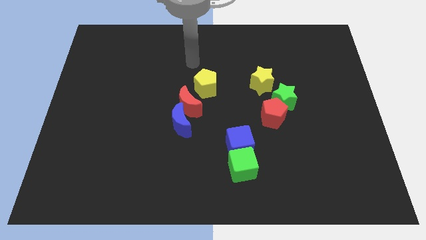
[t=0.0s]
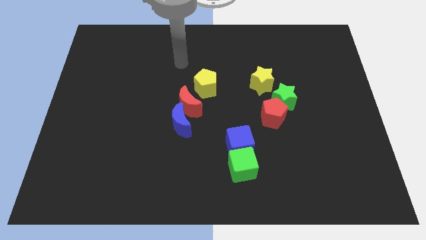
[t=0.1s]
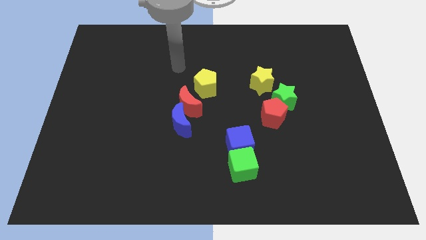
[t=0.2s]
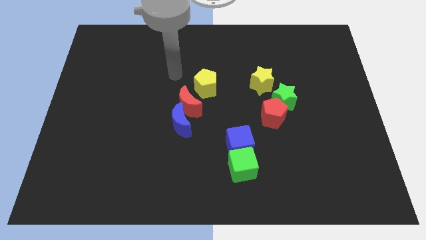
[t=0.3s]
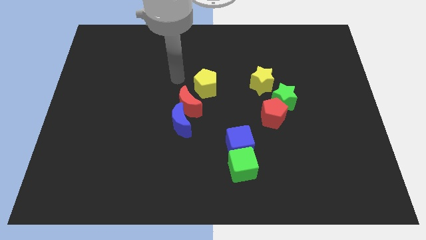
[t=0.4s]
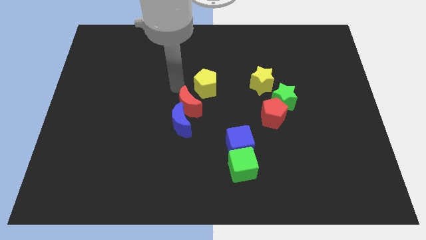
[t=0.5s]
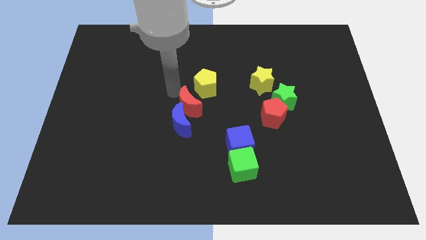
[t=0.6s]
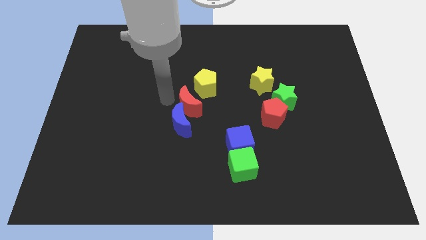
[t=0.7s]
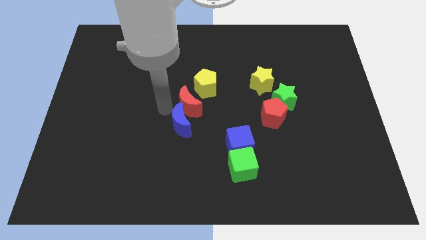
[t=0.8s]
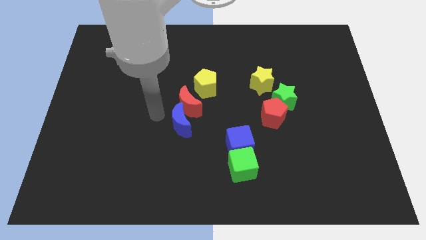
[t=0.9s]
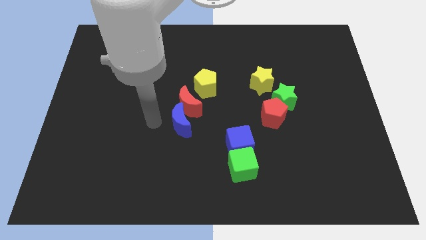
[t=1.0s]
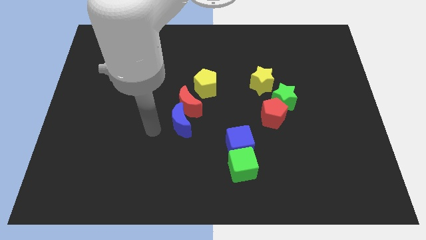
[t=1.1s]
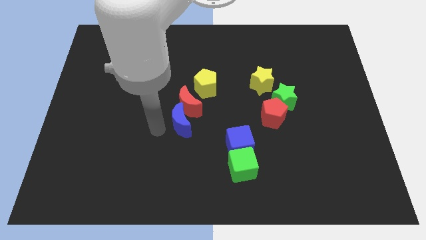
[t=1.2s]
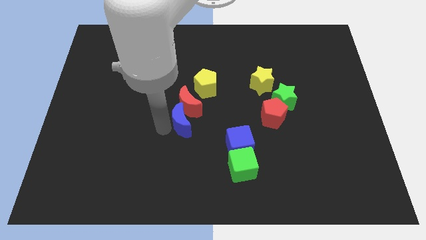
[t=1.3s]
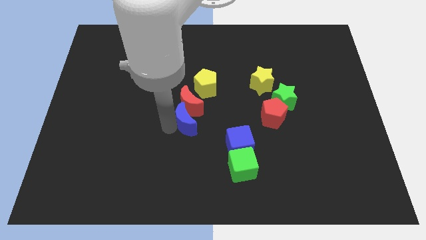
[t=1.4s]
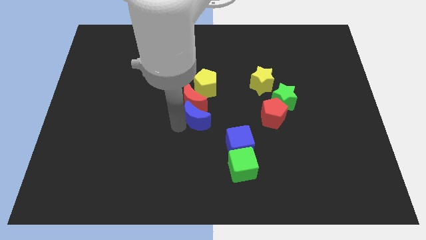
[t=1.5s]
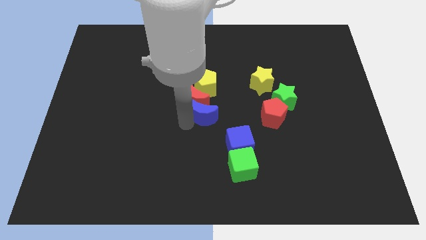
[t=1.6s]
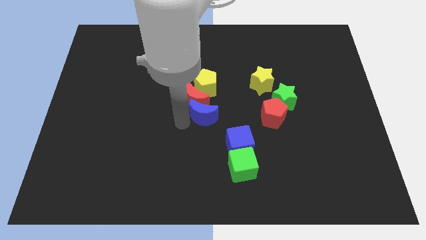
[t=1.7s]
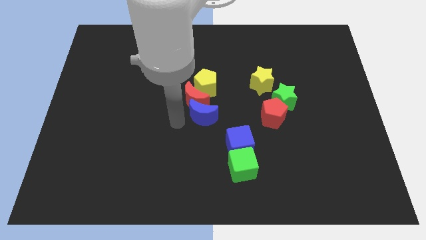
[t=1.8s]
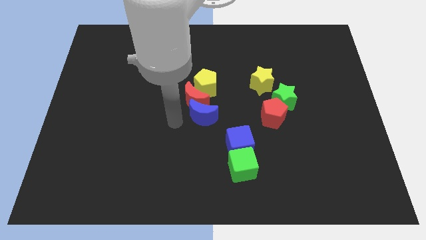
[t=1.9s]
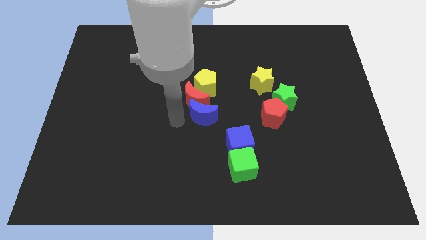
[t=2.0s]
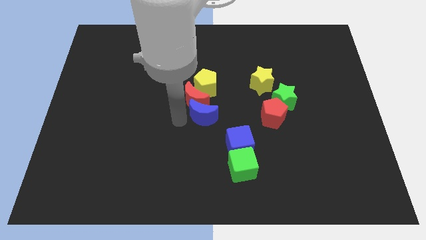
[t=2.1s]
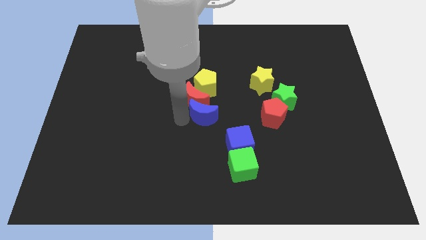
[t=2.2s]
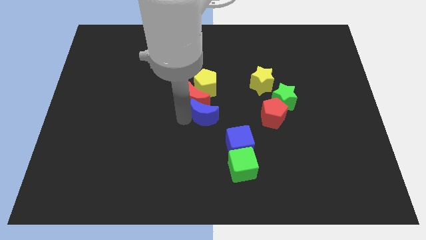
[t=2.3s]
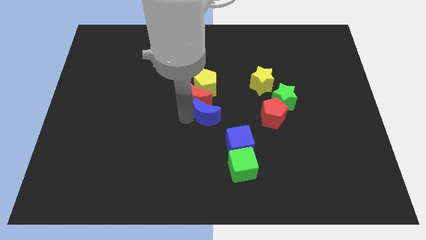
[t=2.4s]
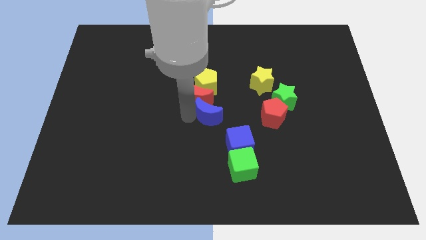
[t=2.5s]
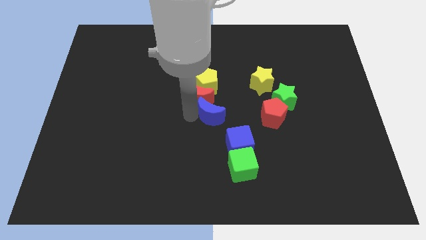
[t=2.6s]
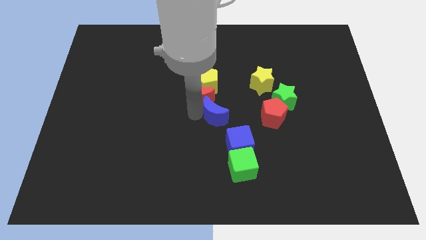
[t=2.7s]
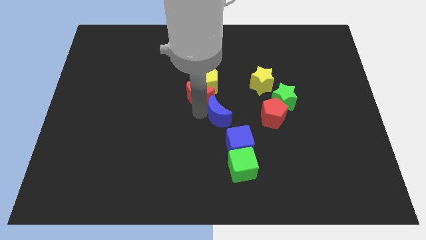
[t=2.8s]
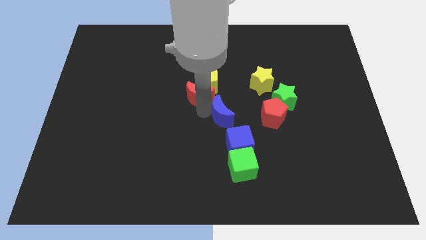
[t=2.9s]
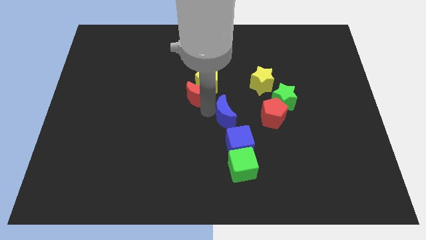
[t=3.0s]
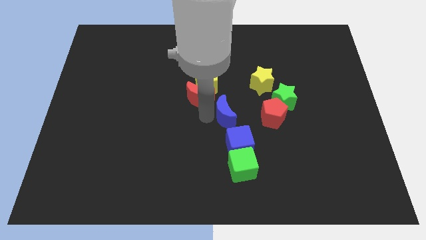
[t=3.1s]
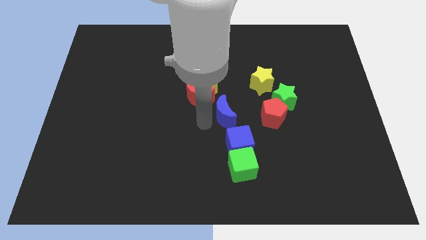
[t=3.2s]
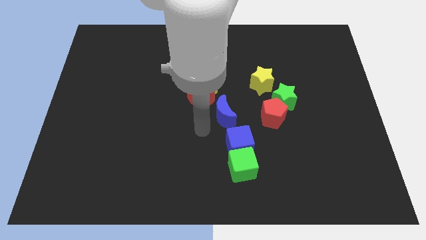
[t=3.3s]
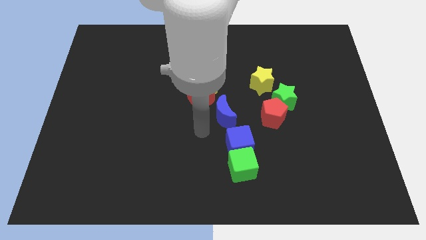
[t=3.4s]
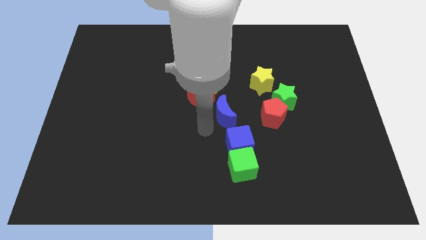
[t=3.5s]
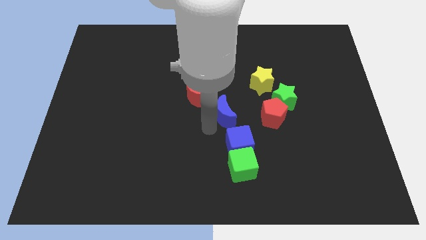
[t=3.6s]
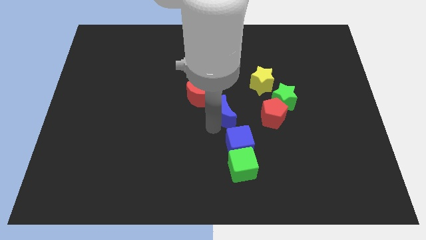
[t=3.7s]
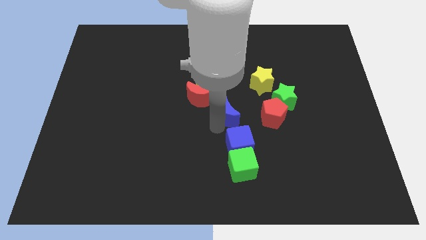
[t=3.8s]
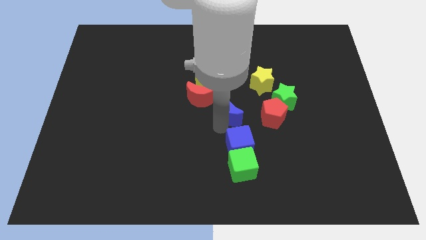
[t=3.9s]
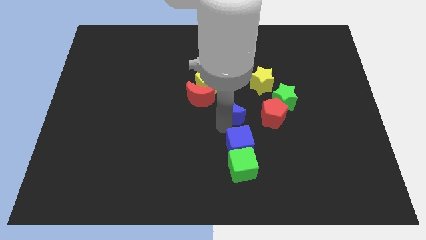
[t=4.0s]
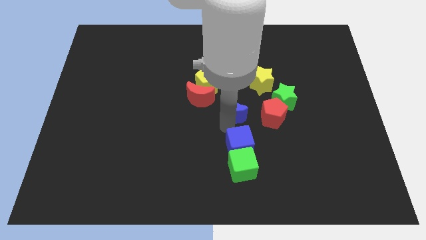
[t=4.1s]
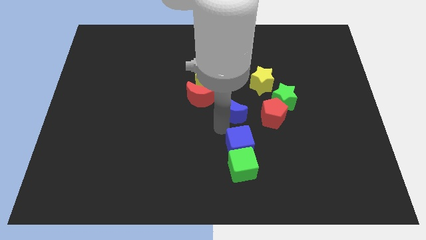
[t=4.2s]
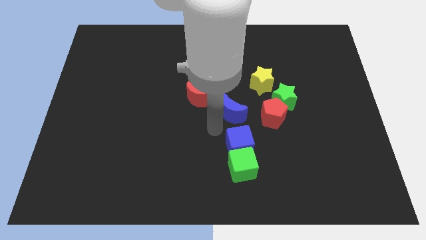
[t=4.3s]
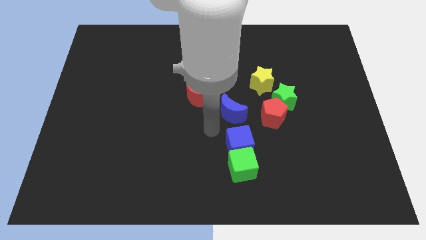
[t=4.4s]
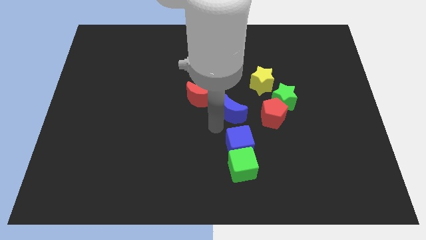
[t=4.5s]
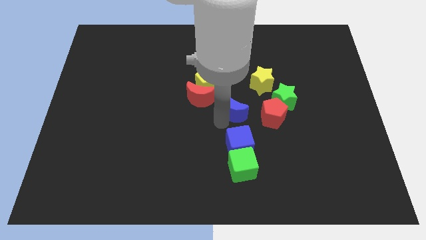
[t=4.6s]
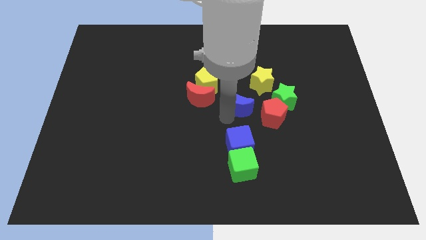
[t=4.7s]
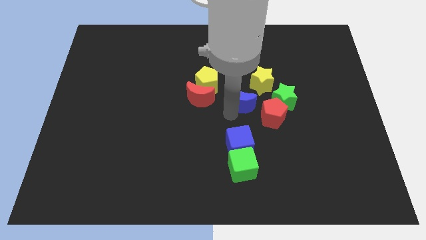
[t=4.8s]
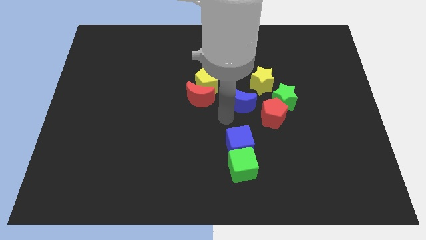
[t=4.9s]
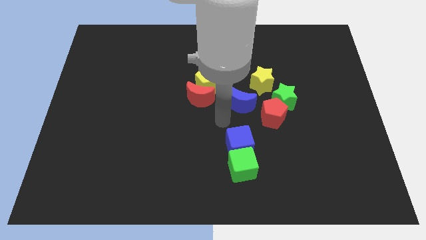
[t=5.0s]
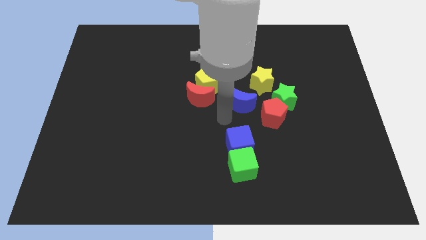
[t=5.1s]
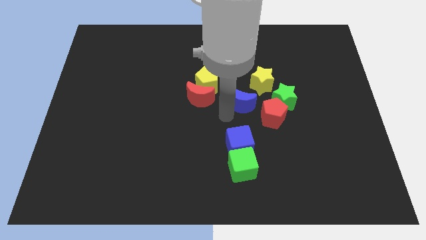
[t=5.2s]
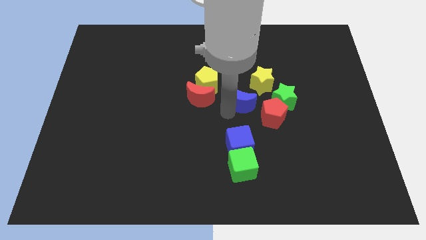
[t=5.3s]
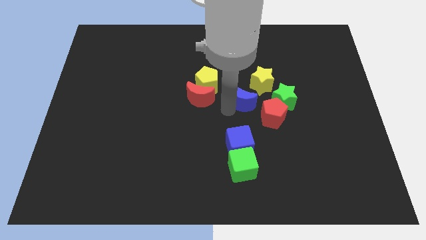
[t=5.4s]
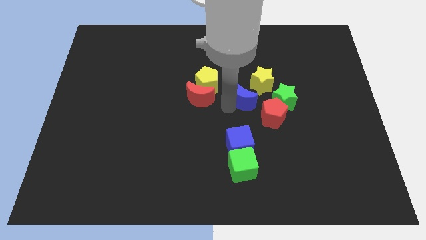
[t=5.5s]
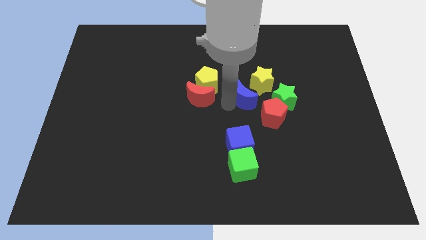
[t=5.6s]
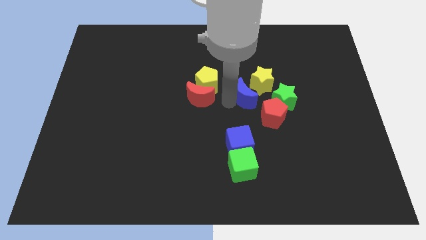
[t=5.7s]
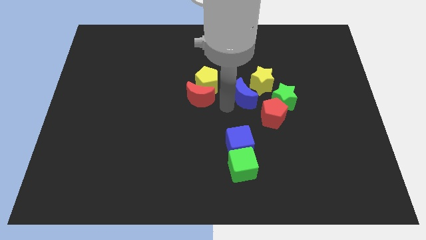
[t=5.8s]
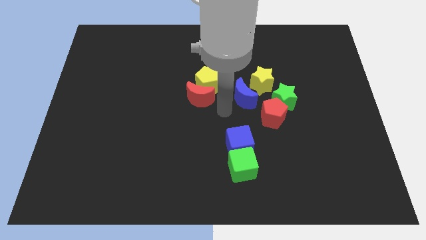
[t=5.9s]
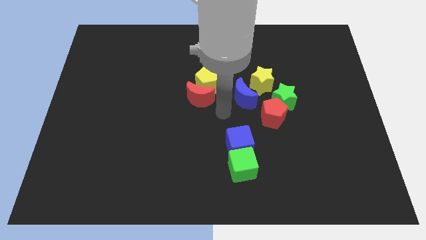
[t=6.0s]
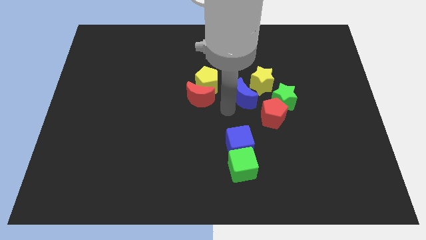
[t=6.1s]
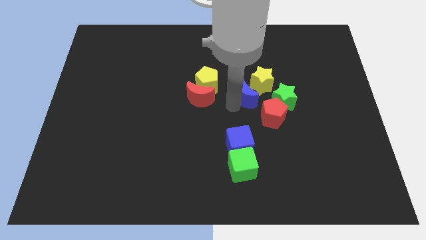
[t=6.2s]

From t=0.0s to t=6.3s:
put the blue moon close to the yellow star

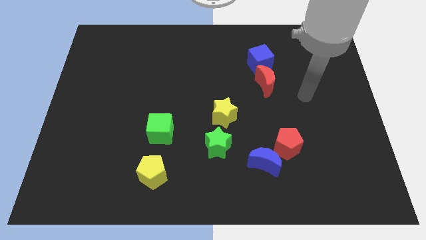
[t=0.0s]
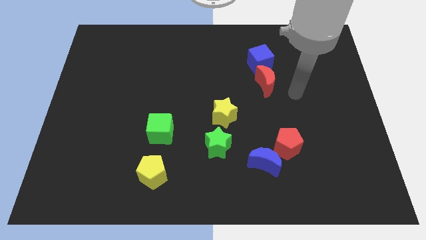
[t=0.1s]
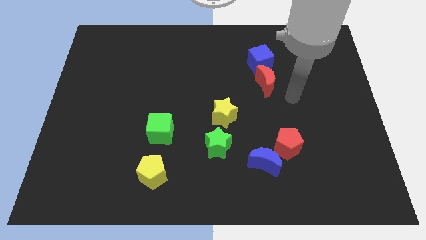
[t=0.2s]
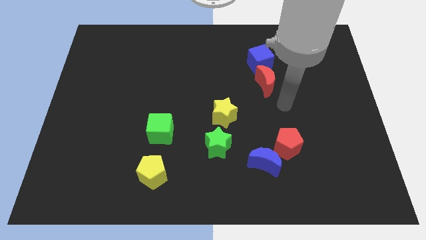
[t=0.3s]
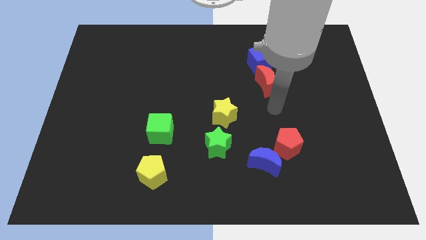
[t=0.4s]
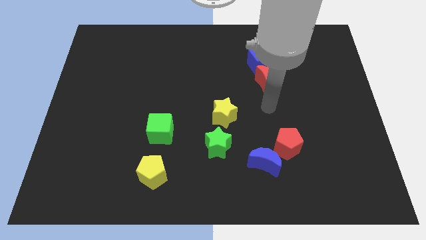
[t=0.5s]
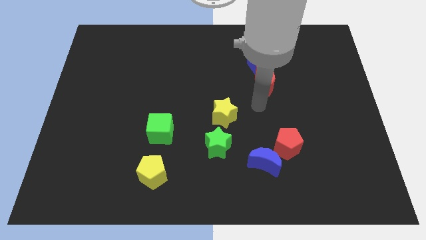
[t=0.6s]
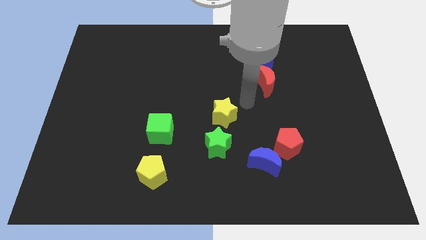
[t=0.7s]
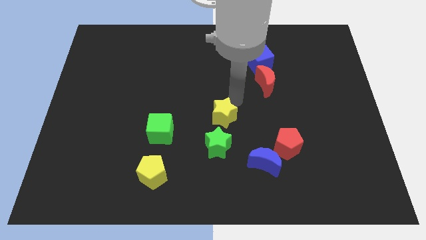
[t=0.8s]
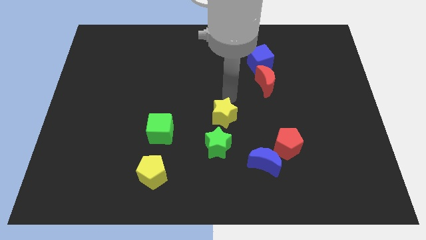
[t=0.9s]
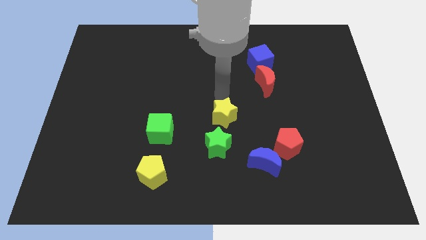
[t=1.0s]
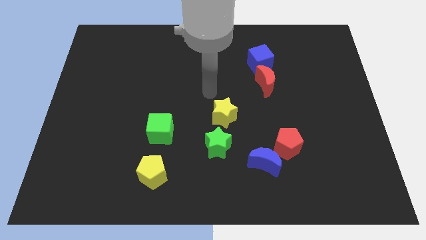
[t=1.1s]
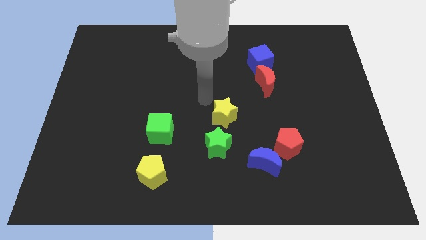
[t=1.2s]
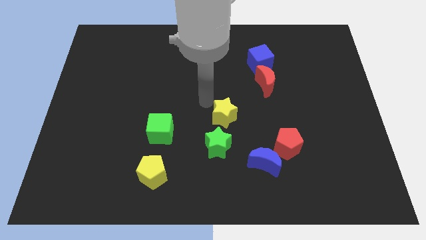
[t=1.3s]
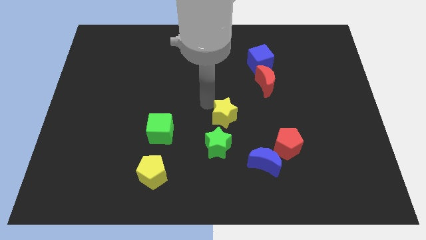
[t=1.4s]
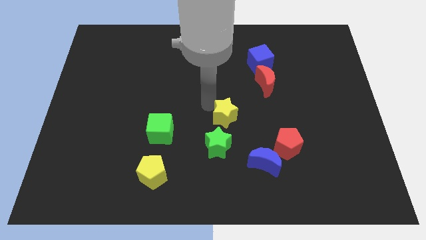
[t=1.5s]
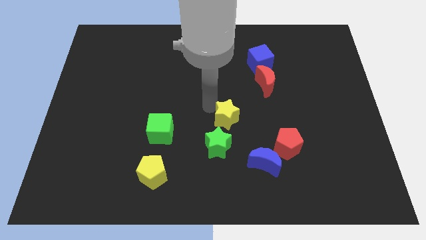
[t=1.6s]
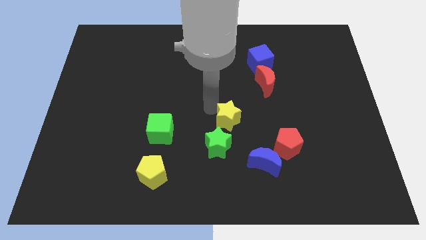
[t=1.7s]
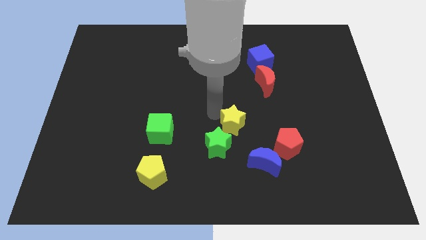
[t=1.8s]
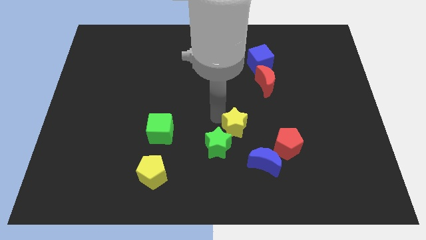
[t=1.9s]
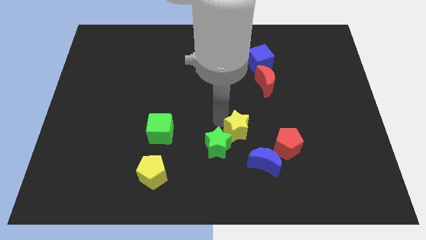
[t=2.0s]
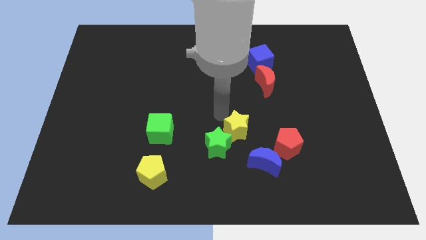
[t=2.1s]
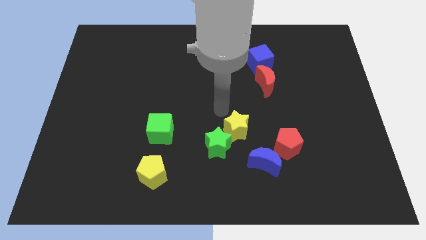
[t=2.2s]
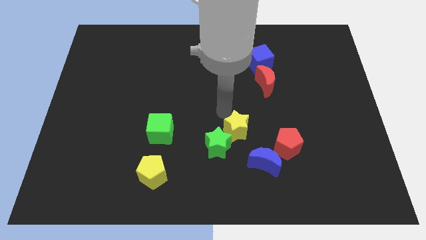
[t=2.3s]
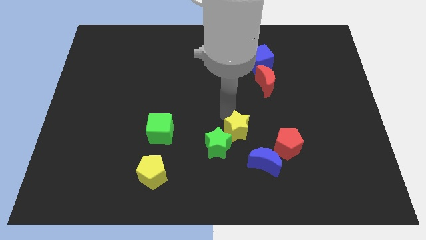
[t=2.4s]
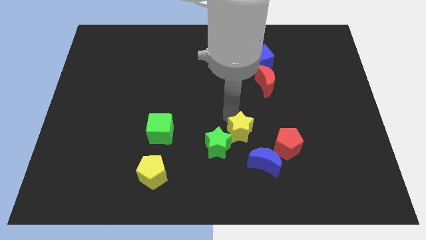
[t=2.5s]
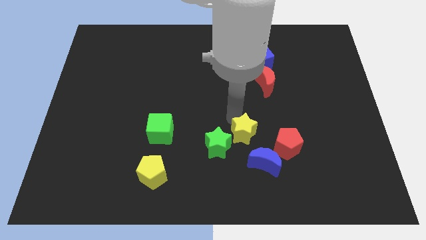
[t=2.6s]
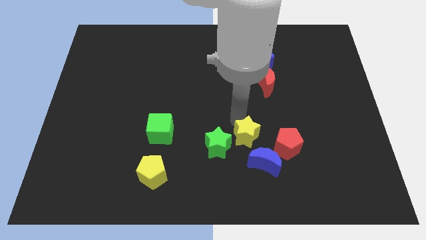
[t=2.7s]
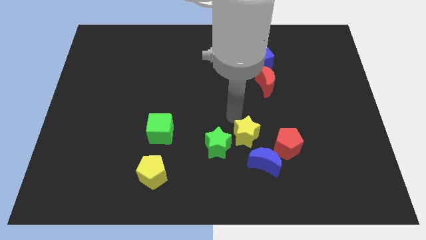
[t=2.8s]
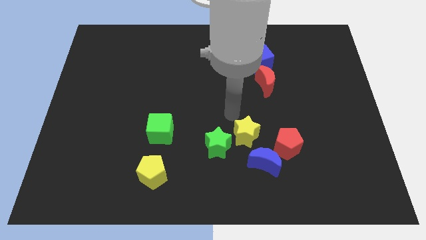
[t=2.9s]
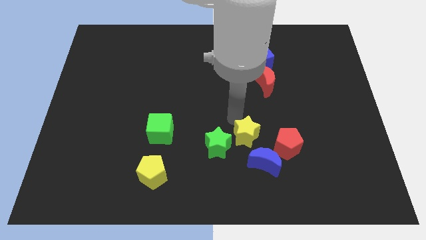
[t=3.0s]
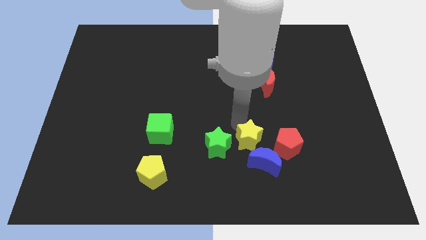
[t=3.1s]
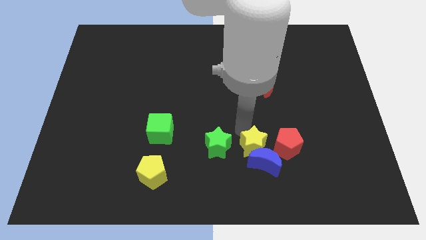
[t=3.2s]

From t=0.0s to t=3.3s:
move the yellow star next to the blue moon
